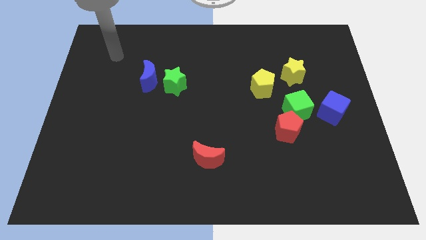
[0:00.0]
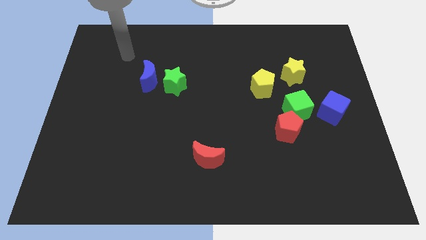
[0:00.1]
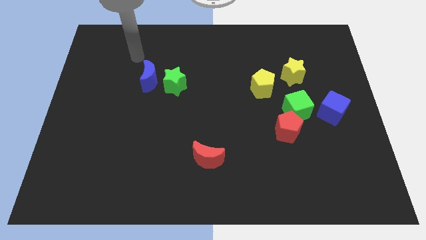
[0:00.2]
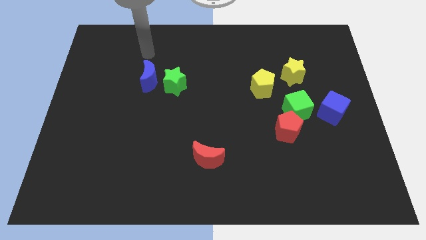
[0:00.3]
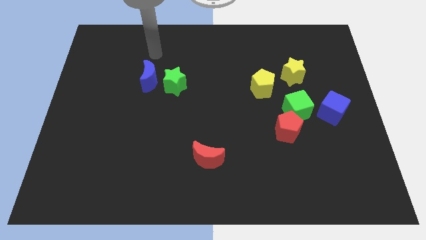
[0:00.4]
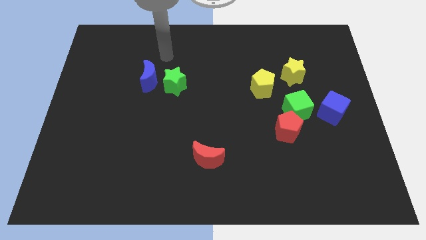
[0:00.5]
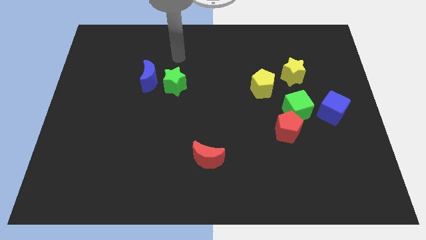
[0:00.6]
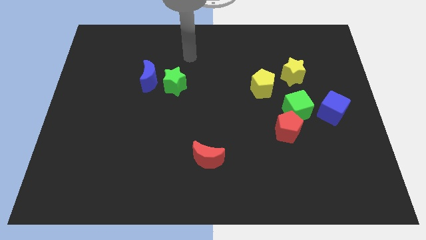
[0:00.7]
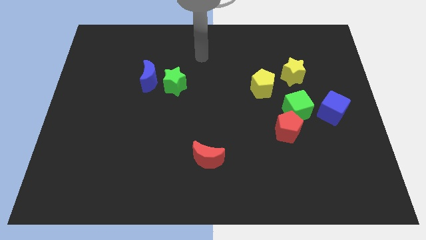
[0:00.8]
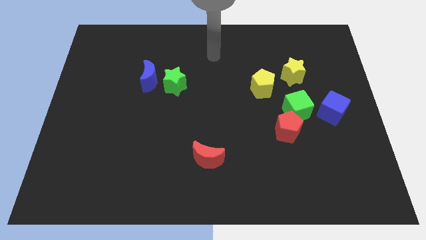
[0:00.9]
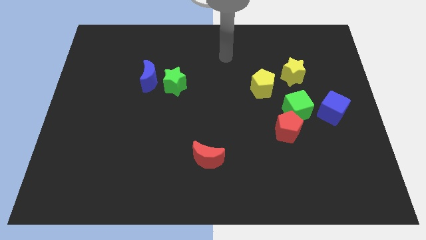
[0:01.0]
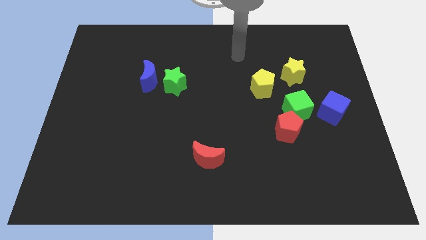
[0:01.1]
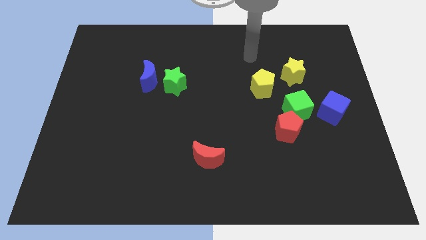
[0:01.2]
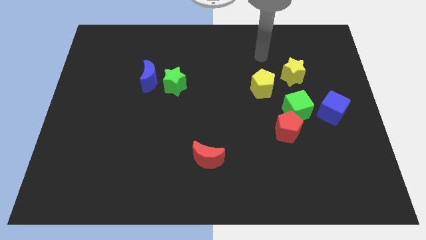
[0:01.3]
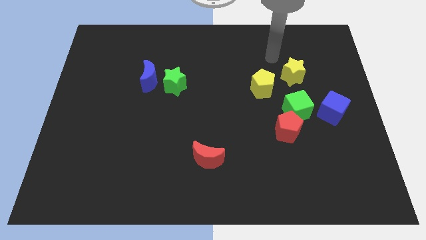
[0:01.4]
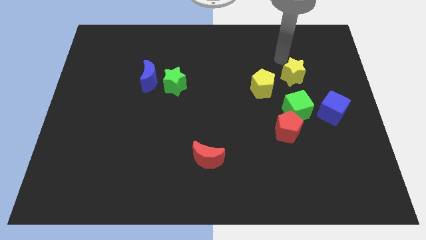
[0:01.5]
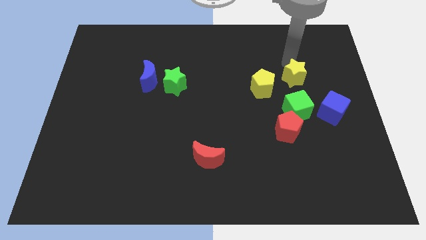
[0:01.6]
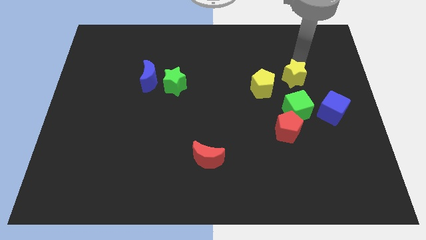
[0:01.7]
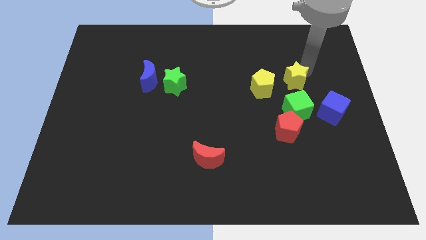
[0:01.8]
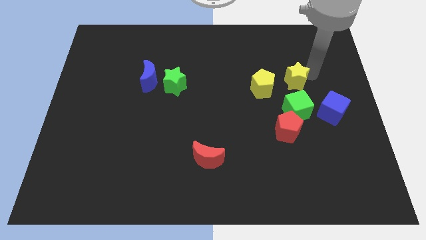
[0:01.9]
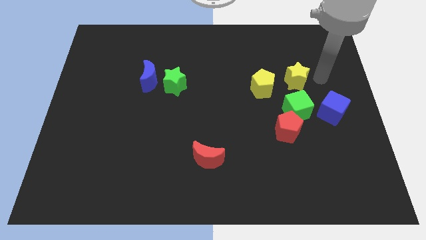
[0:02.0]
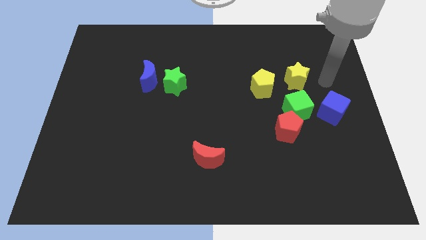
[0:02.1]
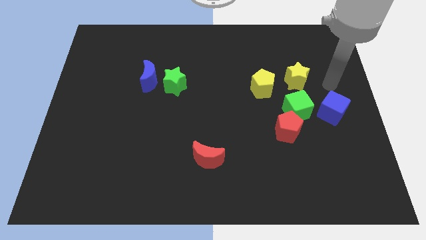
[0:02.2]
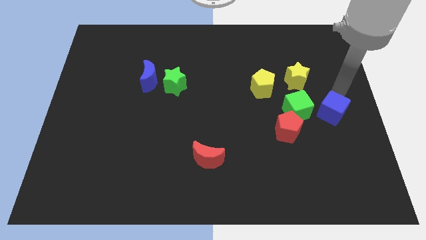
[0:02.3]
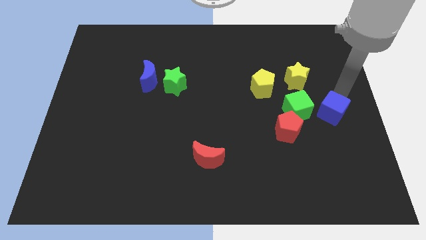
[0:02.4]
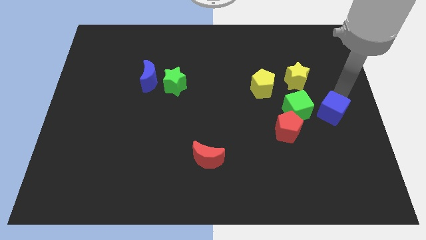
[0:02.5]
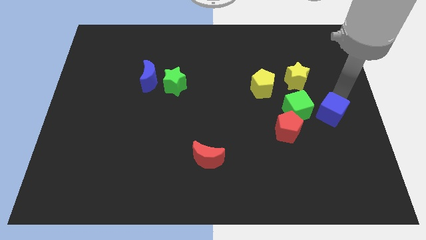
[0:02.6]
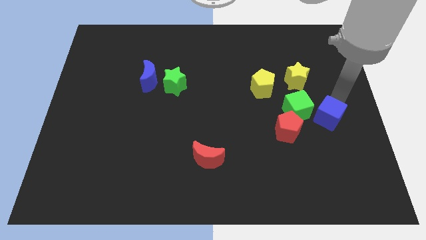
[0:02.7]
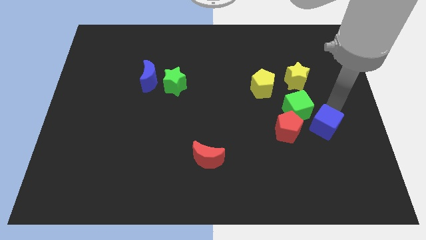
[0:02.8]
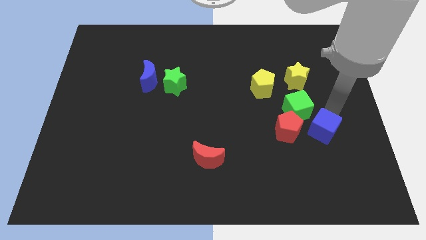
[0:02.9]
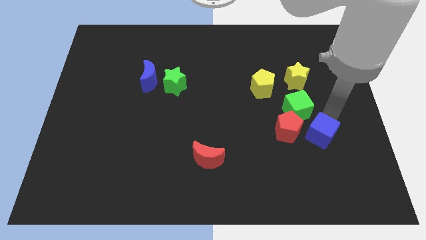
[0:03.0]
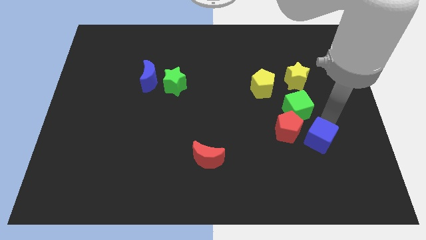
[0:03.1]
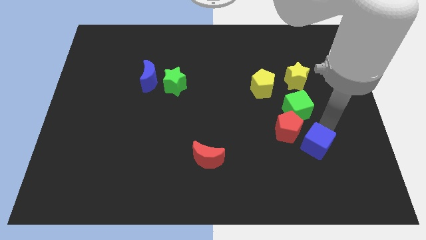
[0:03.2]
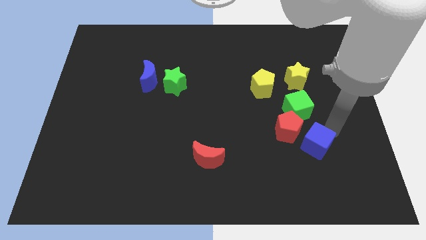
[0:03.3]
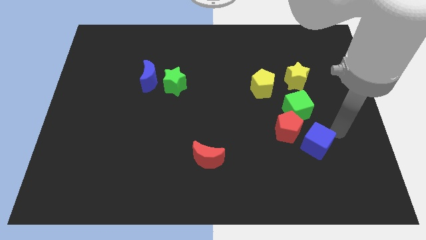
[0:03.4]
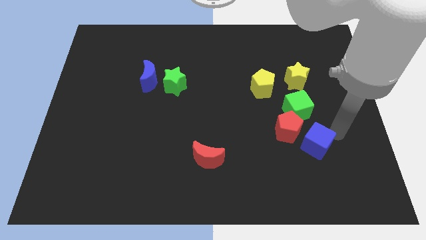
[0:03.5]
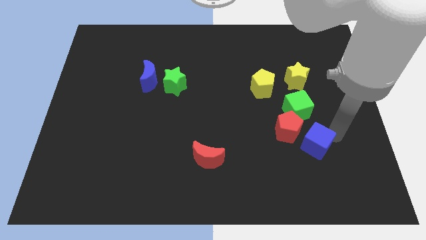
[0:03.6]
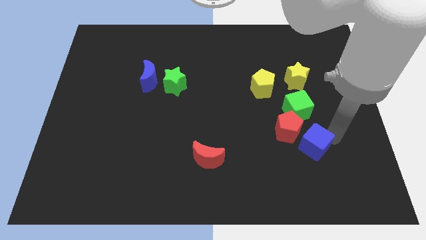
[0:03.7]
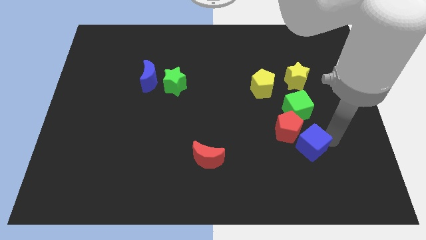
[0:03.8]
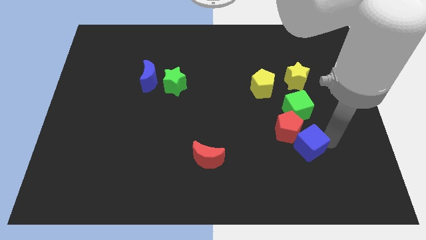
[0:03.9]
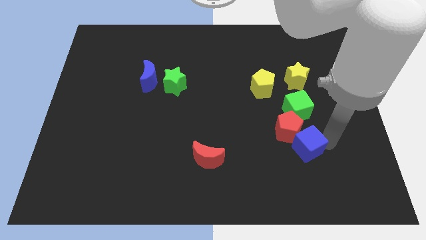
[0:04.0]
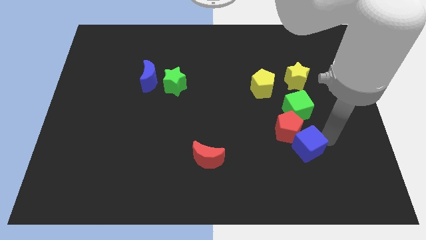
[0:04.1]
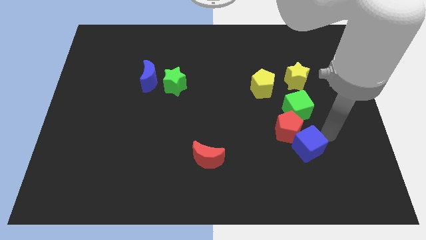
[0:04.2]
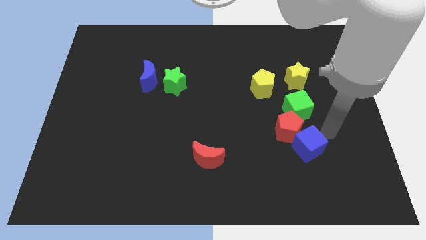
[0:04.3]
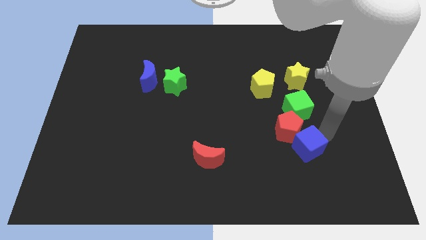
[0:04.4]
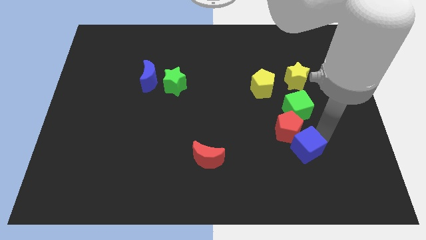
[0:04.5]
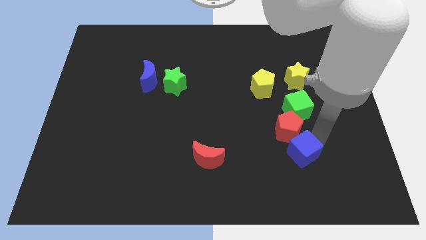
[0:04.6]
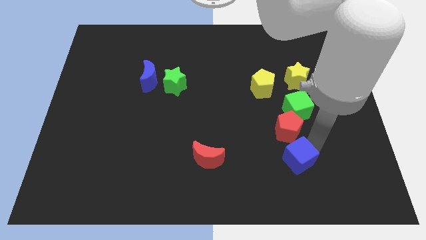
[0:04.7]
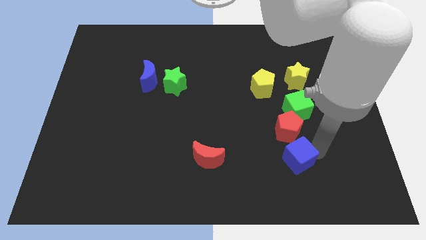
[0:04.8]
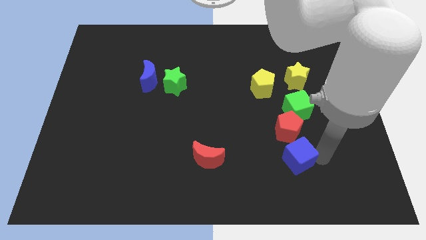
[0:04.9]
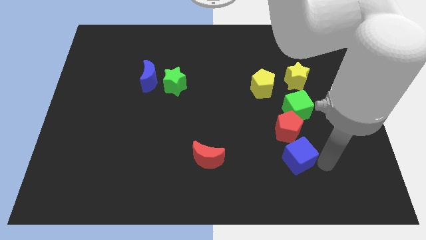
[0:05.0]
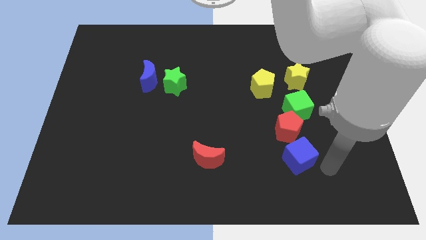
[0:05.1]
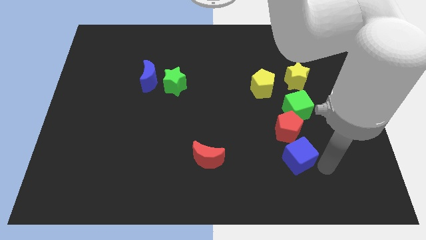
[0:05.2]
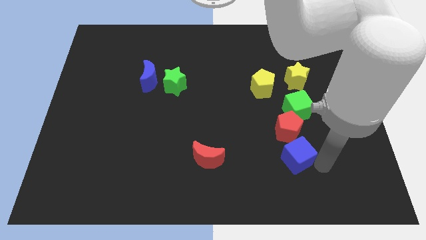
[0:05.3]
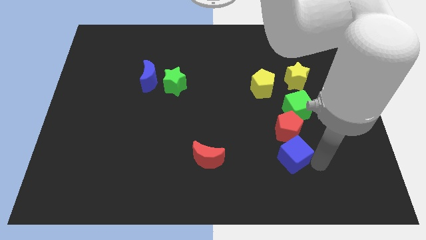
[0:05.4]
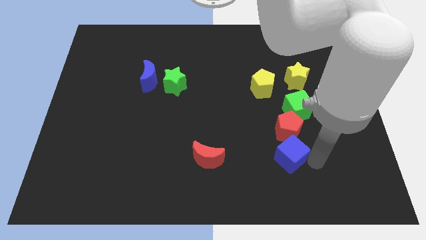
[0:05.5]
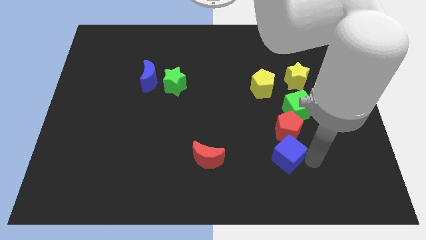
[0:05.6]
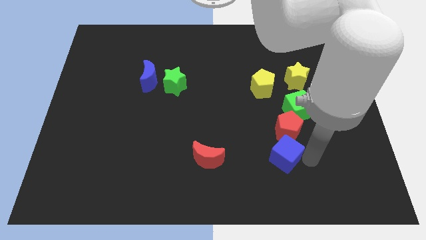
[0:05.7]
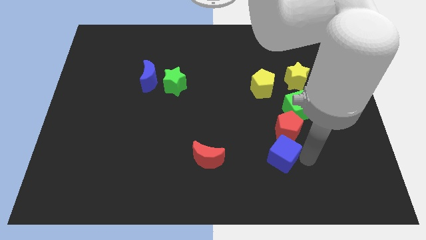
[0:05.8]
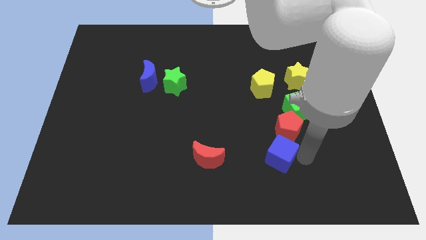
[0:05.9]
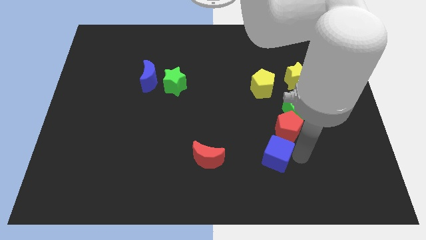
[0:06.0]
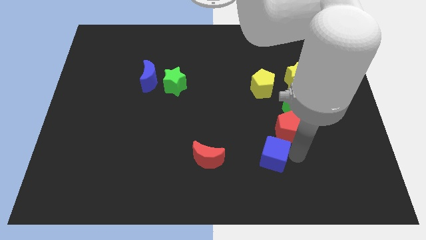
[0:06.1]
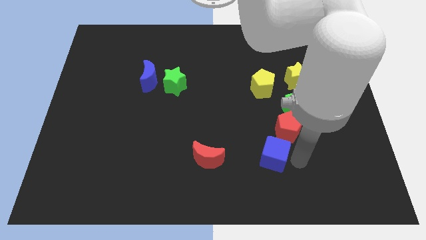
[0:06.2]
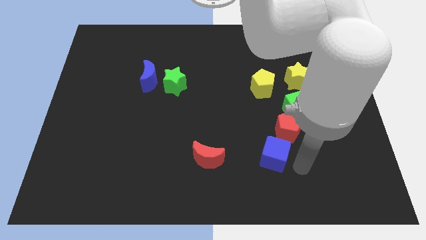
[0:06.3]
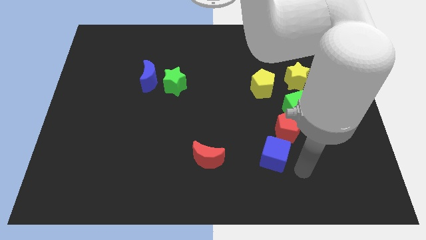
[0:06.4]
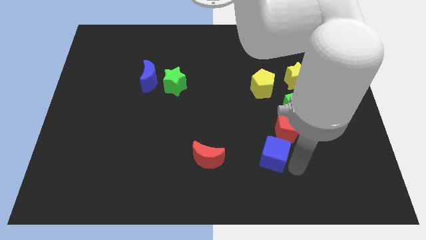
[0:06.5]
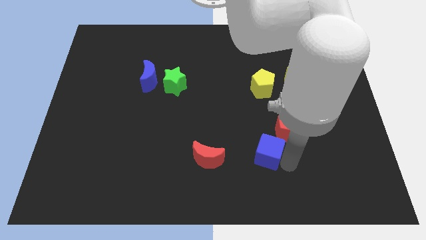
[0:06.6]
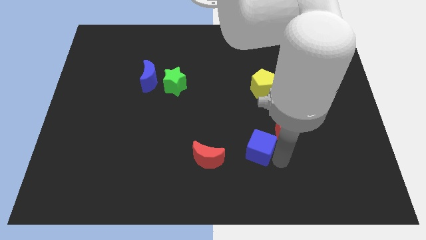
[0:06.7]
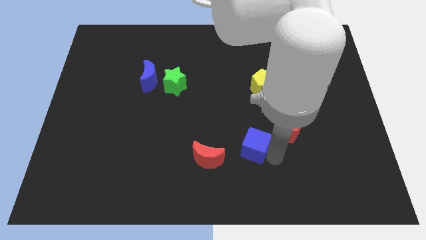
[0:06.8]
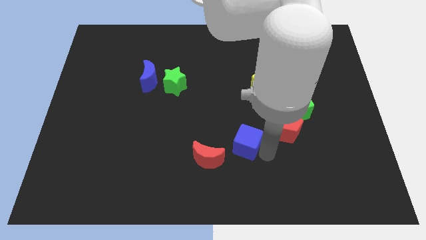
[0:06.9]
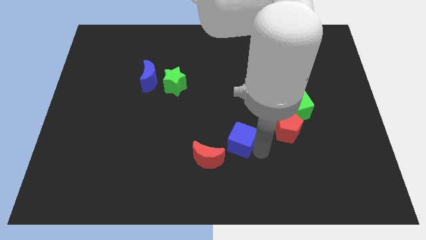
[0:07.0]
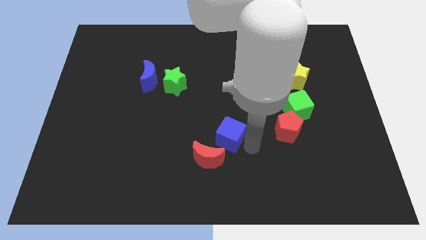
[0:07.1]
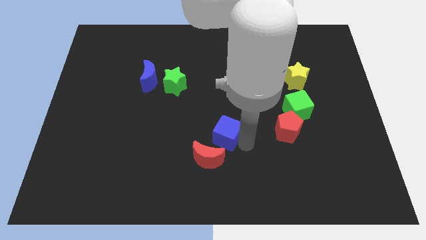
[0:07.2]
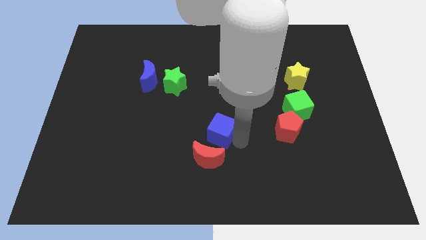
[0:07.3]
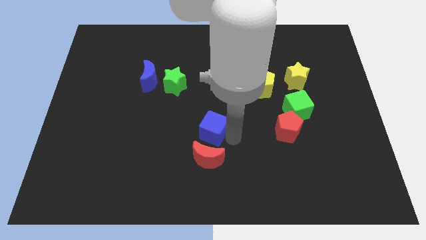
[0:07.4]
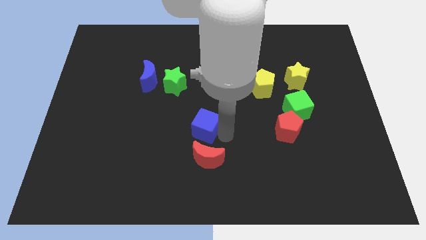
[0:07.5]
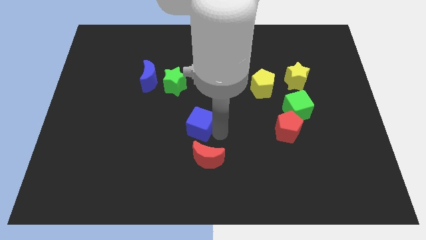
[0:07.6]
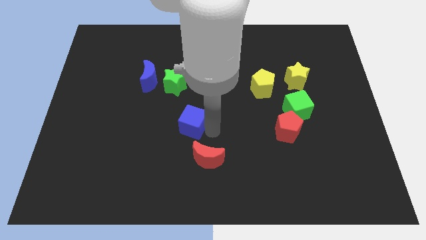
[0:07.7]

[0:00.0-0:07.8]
push the blue cube below the green star
